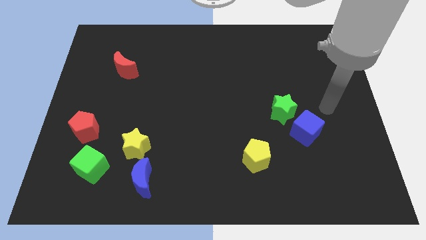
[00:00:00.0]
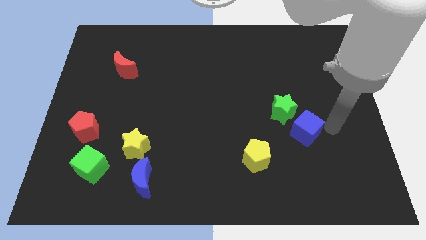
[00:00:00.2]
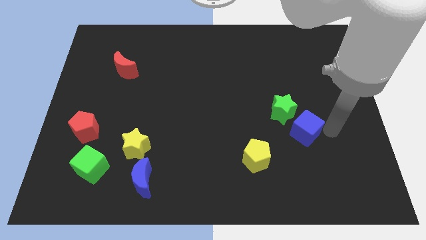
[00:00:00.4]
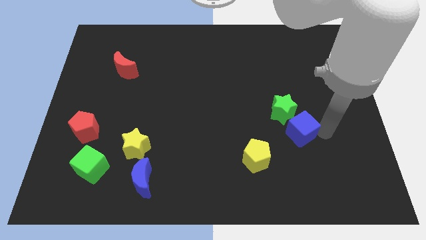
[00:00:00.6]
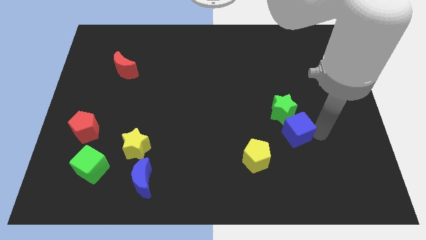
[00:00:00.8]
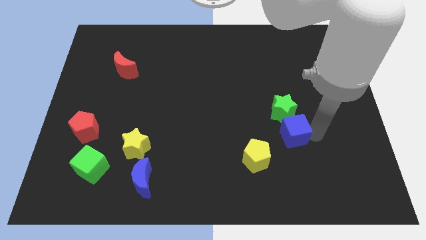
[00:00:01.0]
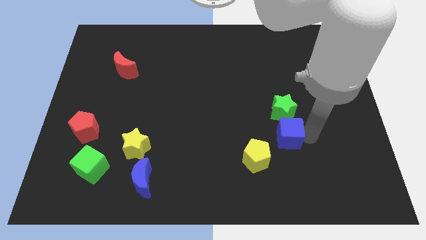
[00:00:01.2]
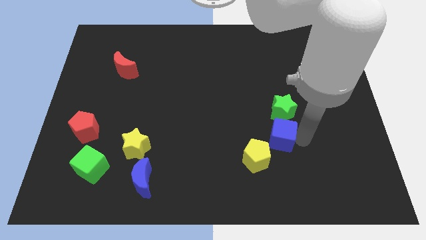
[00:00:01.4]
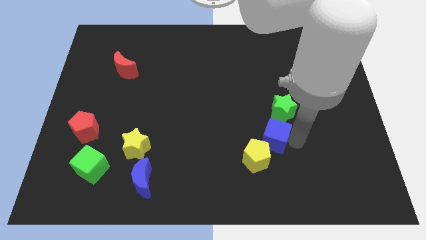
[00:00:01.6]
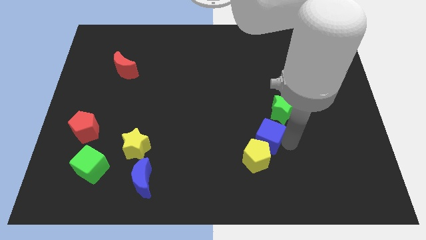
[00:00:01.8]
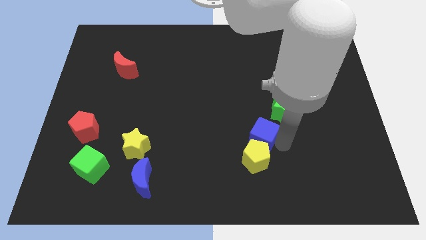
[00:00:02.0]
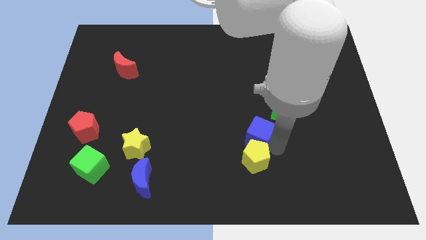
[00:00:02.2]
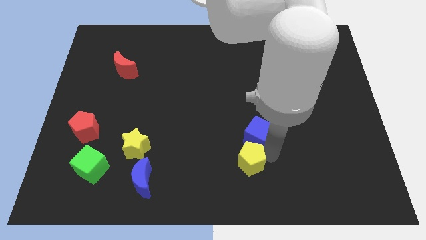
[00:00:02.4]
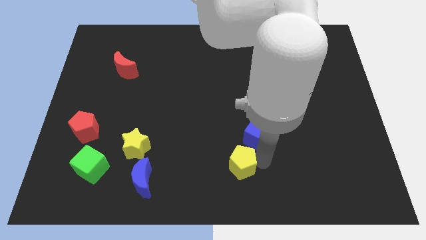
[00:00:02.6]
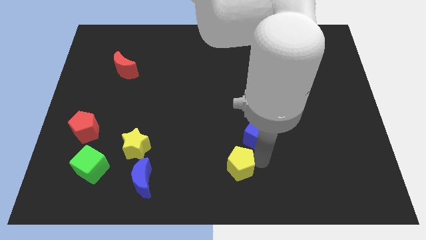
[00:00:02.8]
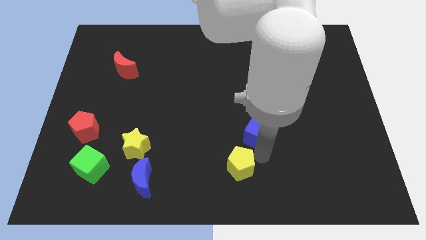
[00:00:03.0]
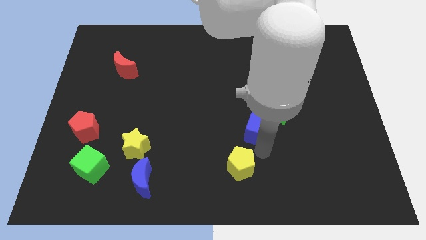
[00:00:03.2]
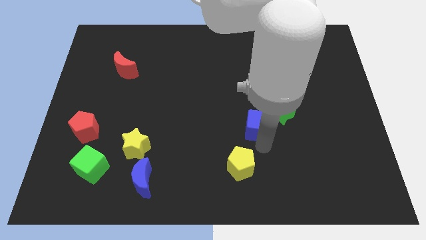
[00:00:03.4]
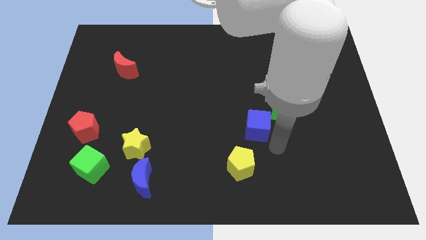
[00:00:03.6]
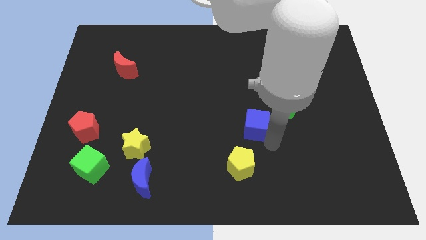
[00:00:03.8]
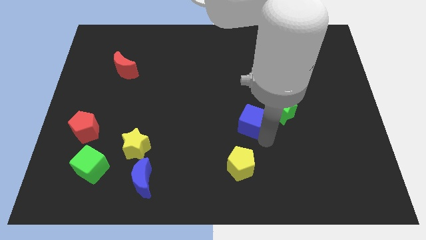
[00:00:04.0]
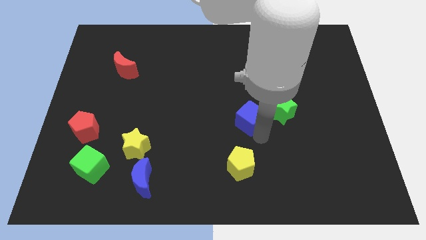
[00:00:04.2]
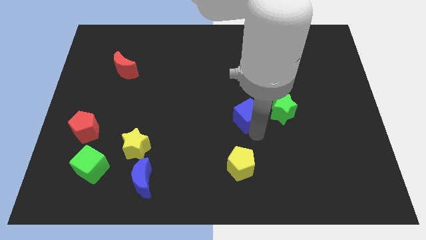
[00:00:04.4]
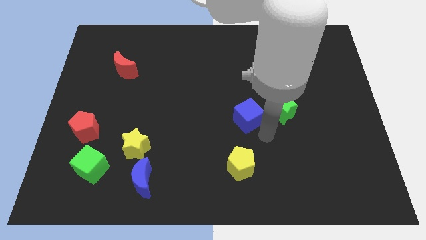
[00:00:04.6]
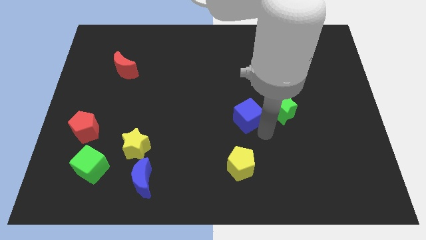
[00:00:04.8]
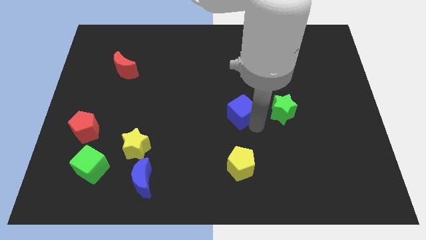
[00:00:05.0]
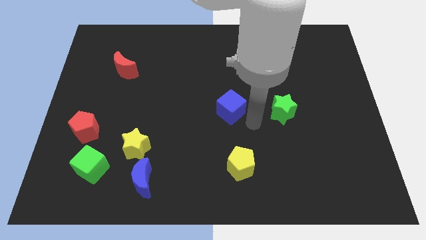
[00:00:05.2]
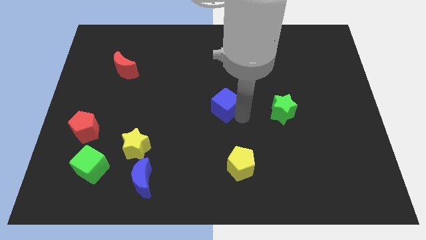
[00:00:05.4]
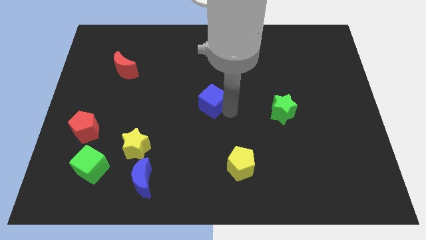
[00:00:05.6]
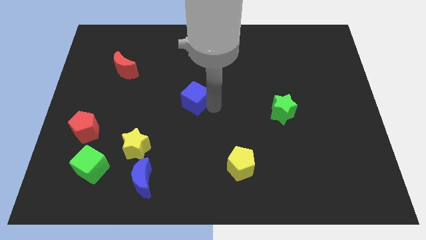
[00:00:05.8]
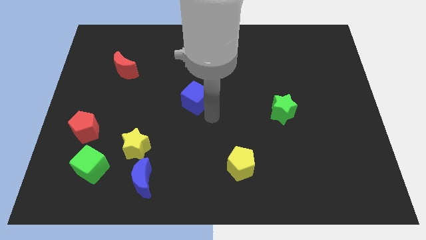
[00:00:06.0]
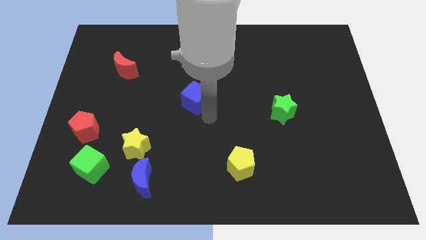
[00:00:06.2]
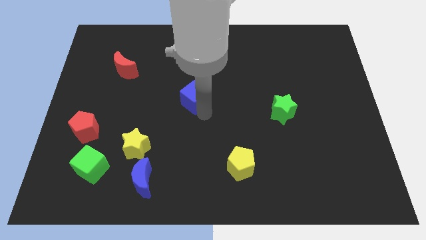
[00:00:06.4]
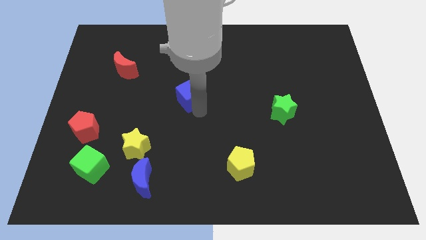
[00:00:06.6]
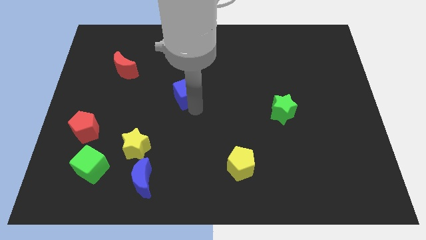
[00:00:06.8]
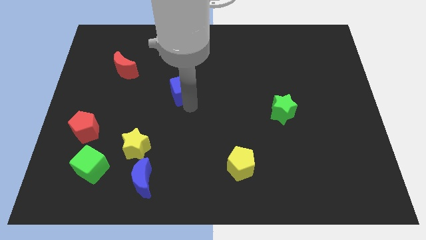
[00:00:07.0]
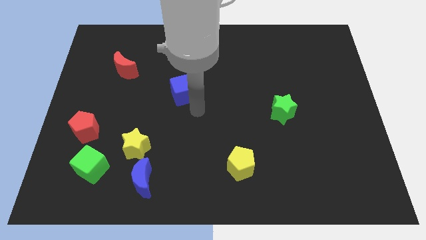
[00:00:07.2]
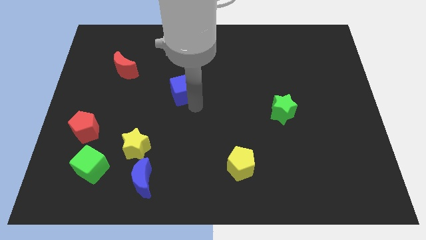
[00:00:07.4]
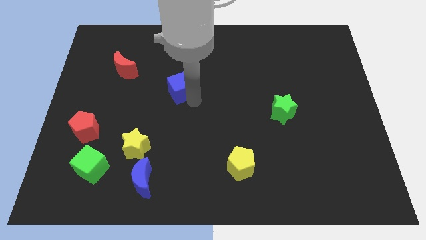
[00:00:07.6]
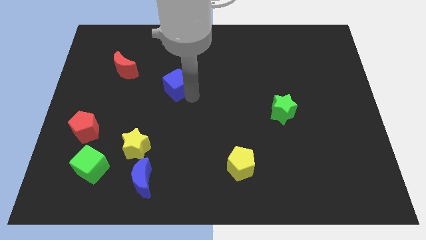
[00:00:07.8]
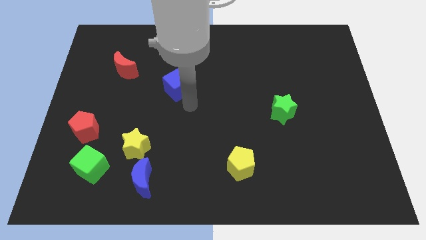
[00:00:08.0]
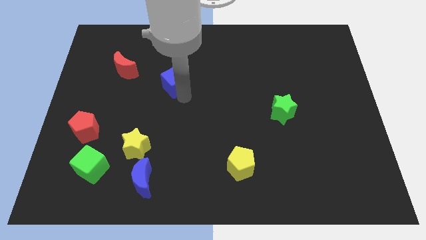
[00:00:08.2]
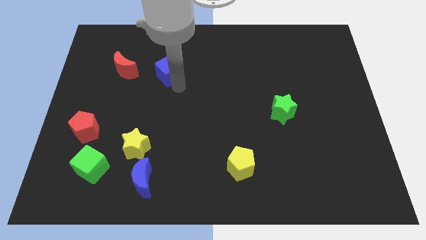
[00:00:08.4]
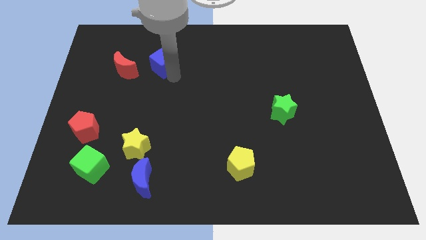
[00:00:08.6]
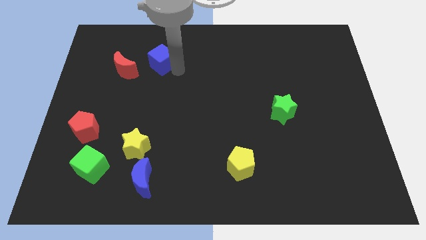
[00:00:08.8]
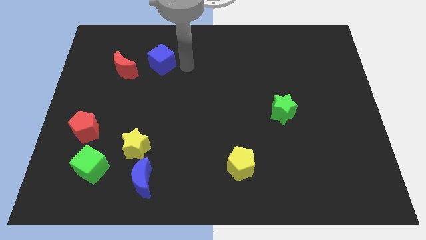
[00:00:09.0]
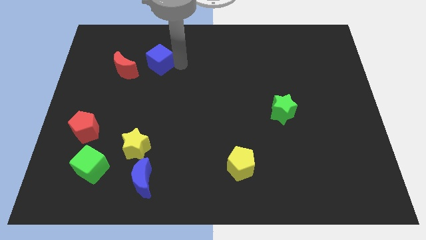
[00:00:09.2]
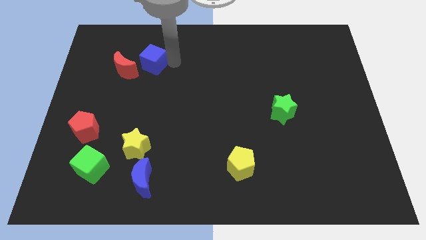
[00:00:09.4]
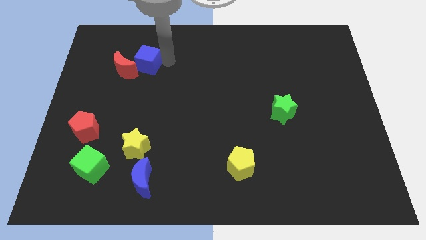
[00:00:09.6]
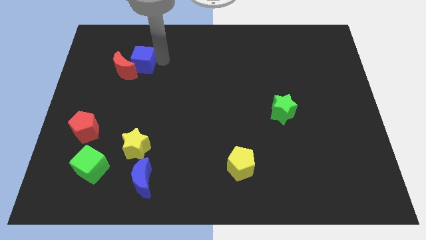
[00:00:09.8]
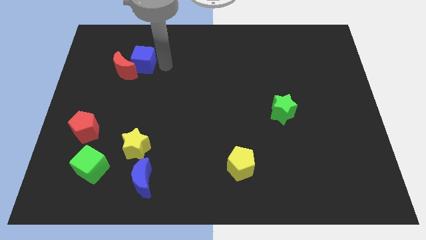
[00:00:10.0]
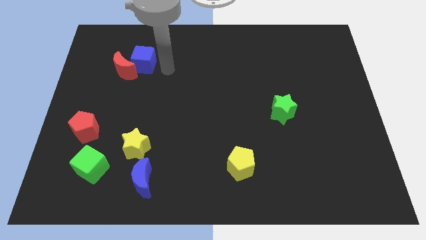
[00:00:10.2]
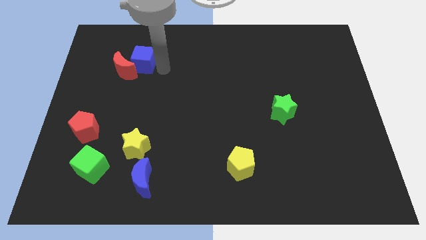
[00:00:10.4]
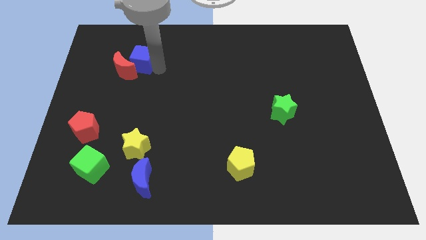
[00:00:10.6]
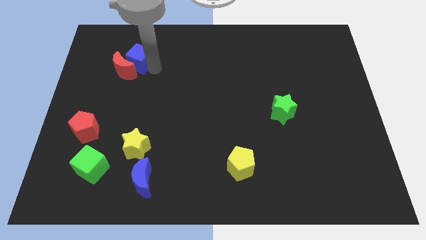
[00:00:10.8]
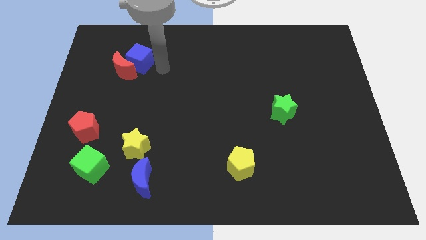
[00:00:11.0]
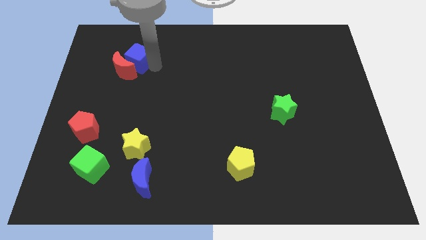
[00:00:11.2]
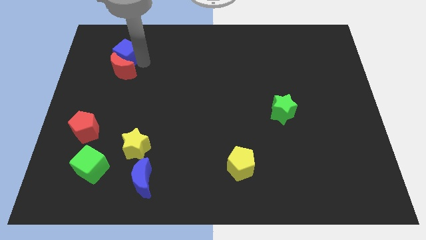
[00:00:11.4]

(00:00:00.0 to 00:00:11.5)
slide the blue cube to the top left side of the red moon

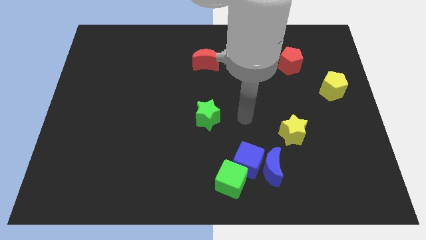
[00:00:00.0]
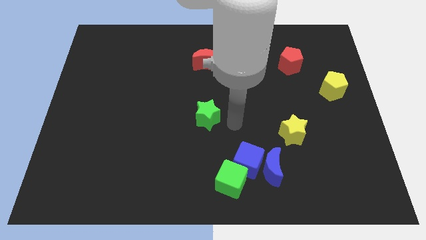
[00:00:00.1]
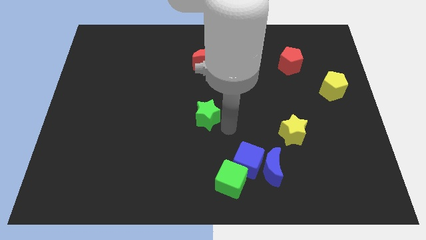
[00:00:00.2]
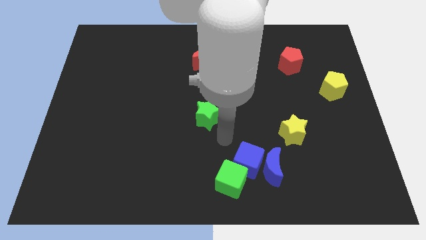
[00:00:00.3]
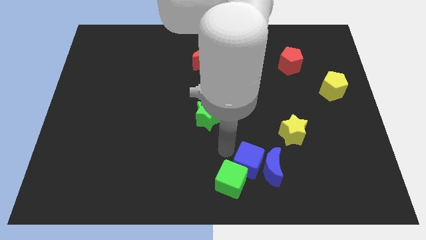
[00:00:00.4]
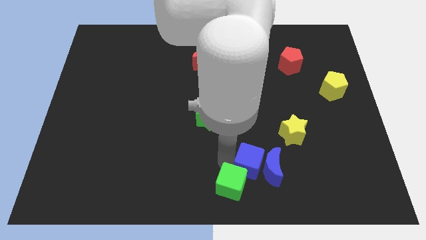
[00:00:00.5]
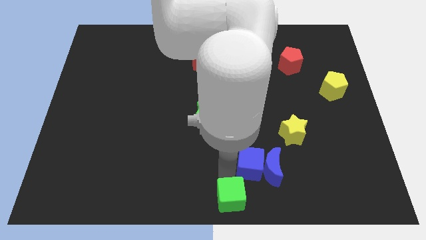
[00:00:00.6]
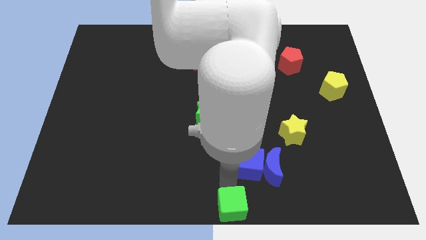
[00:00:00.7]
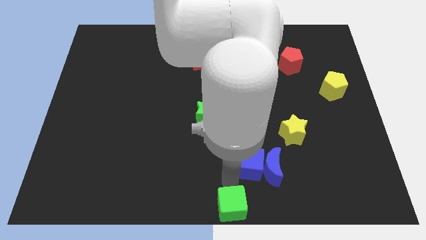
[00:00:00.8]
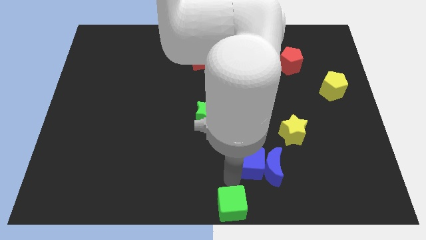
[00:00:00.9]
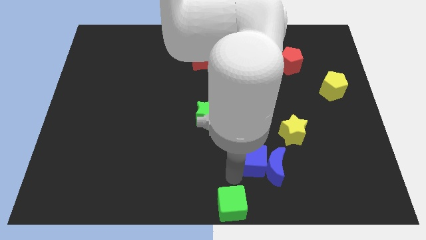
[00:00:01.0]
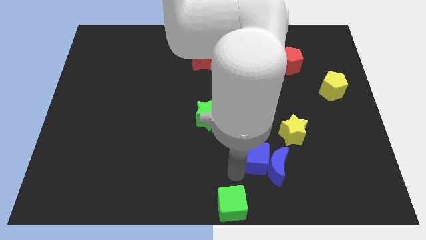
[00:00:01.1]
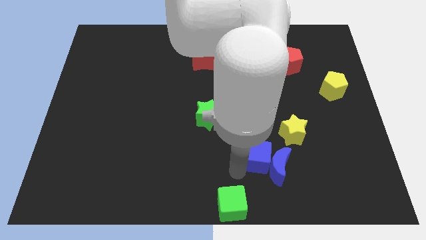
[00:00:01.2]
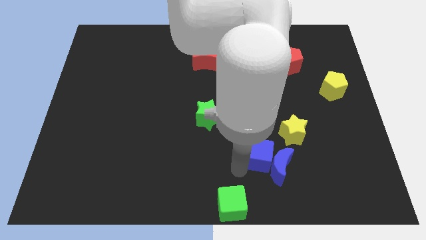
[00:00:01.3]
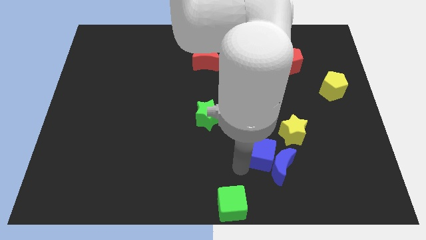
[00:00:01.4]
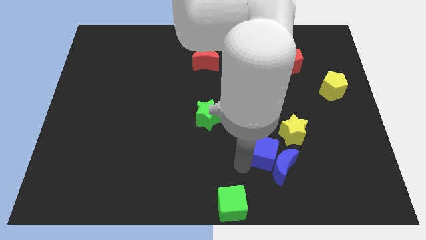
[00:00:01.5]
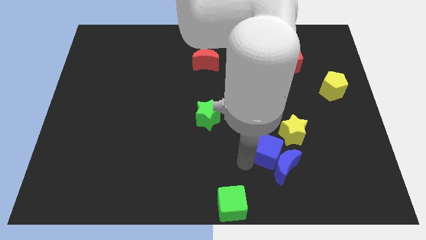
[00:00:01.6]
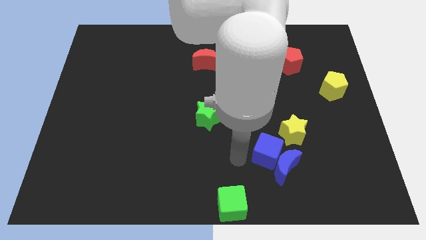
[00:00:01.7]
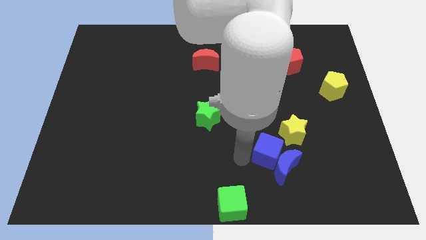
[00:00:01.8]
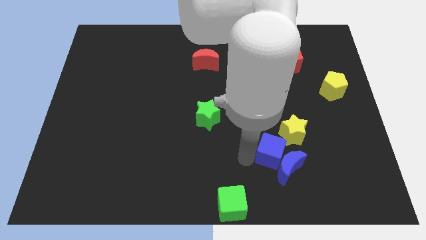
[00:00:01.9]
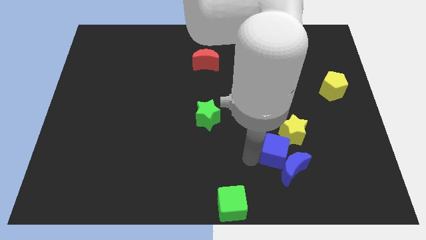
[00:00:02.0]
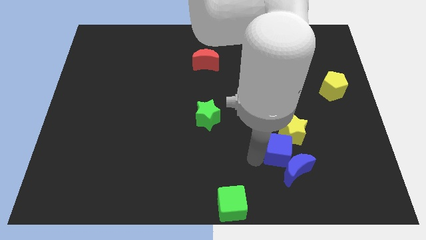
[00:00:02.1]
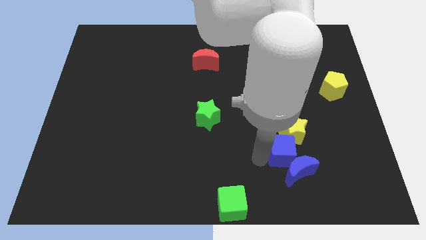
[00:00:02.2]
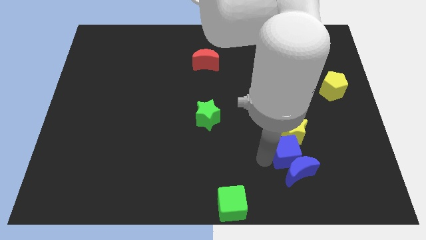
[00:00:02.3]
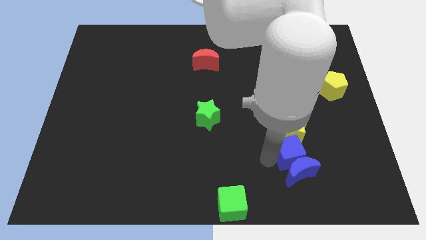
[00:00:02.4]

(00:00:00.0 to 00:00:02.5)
push the blue cube to the top right of the blue moon
